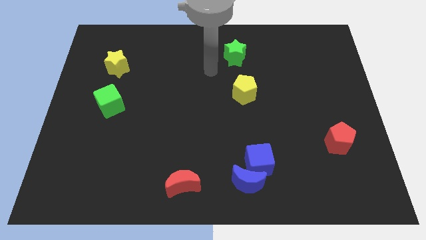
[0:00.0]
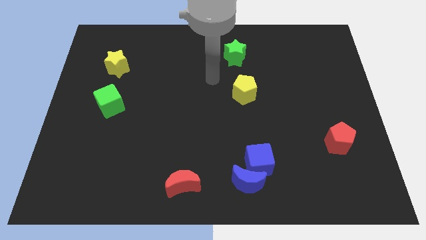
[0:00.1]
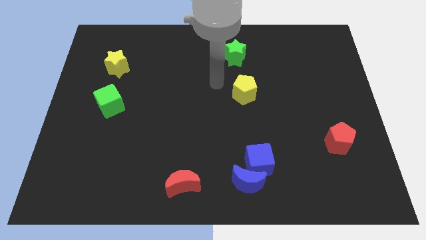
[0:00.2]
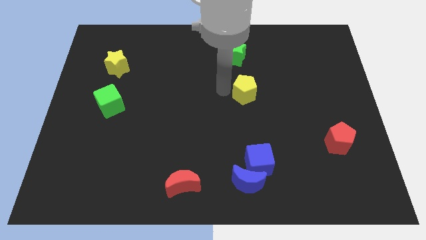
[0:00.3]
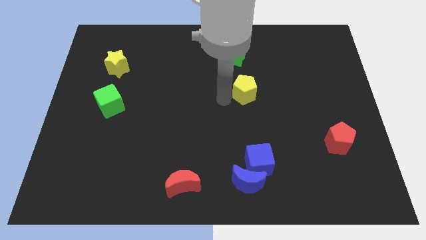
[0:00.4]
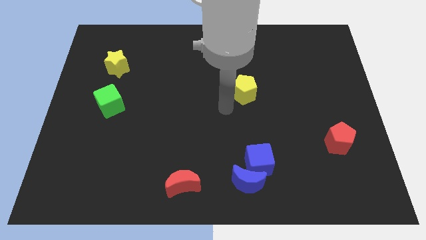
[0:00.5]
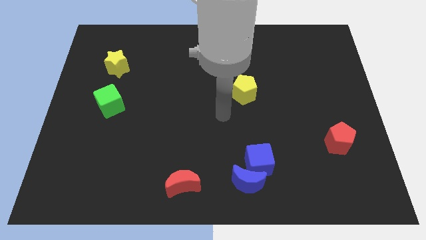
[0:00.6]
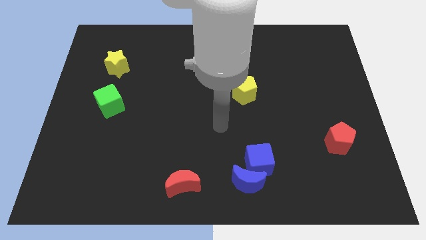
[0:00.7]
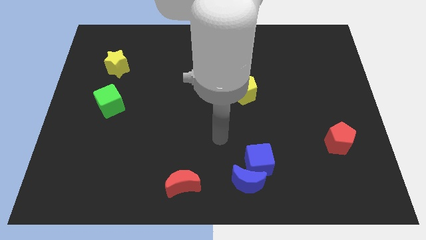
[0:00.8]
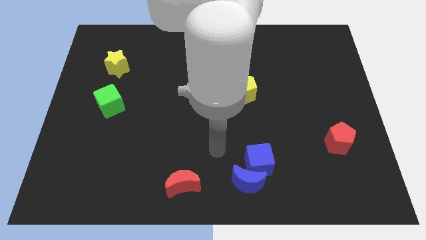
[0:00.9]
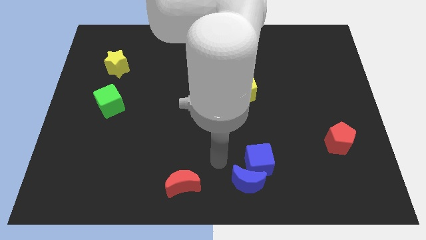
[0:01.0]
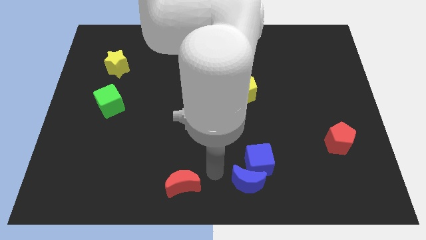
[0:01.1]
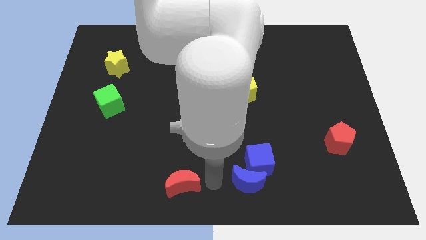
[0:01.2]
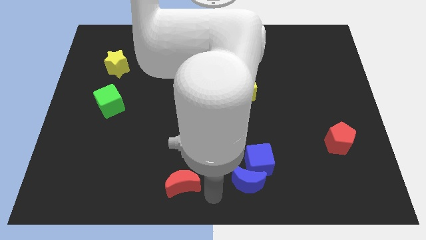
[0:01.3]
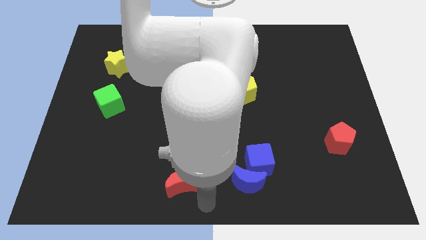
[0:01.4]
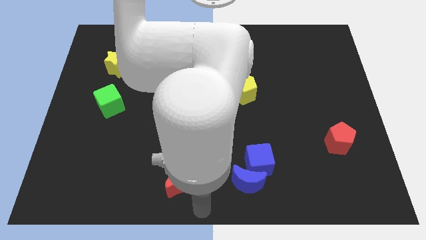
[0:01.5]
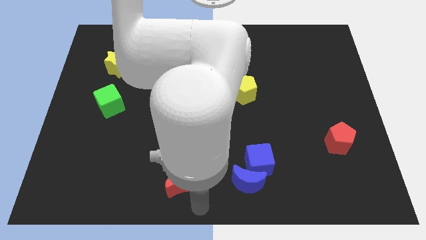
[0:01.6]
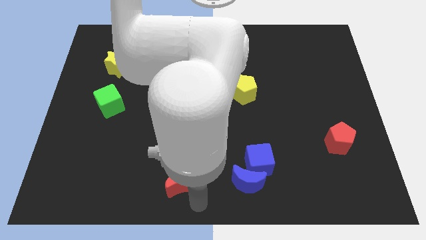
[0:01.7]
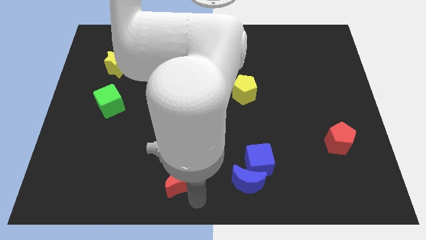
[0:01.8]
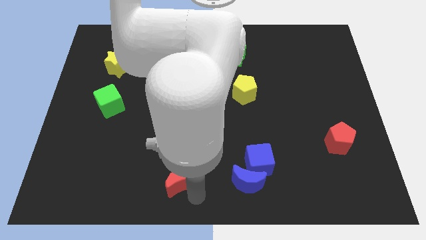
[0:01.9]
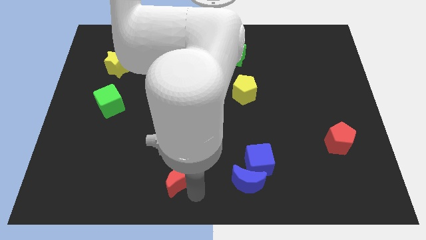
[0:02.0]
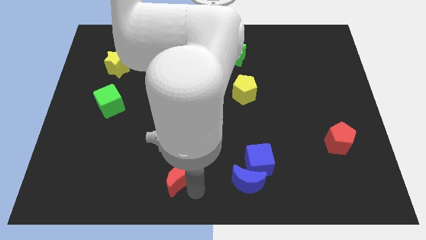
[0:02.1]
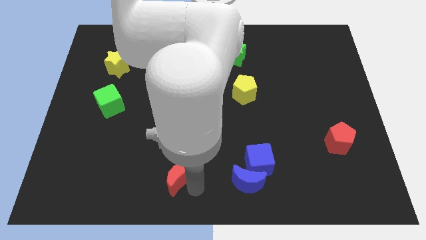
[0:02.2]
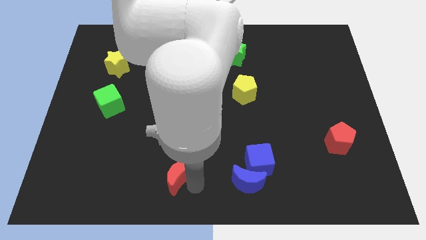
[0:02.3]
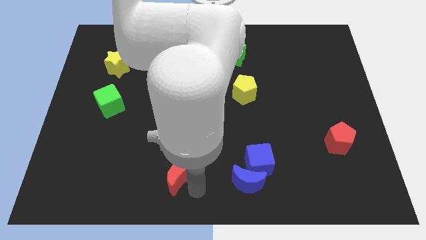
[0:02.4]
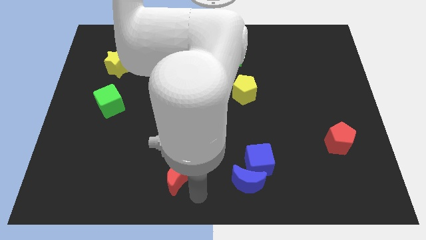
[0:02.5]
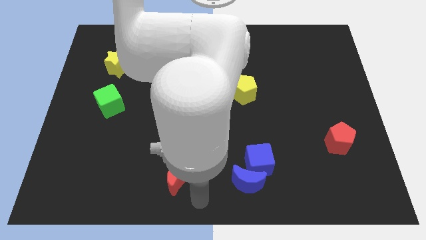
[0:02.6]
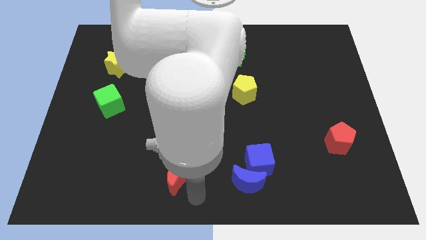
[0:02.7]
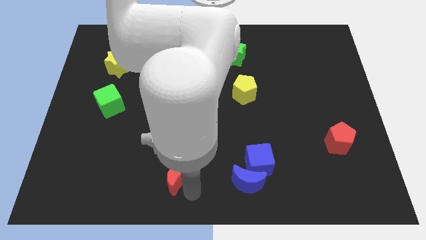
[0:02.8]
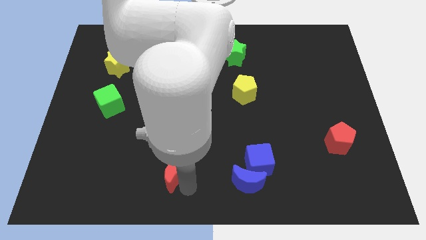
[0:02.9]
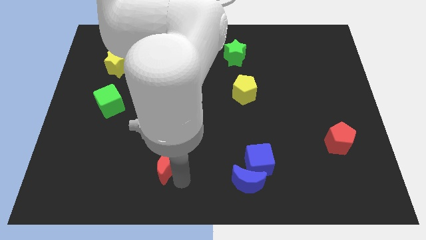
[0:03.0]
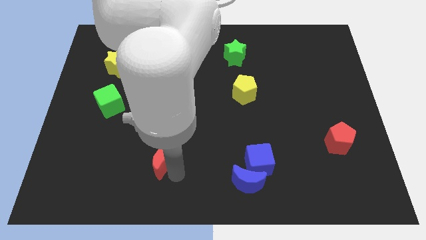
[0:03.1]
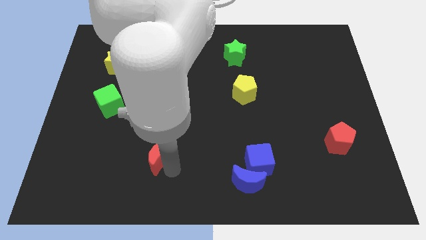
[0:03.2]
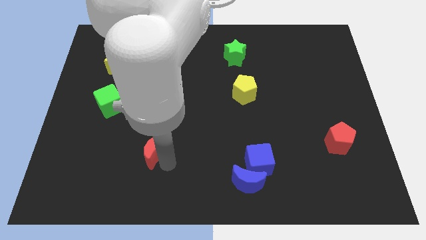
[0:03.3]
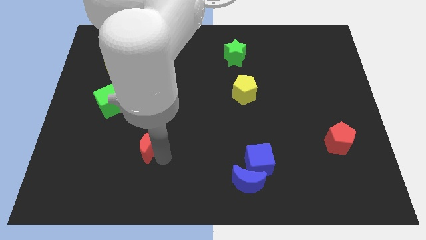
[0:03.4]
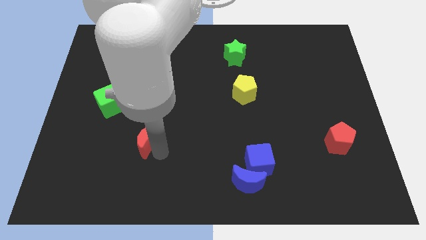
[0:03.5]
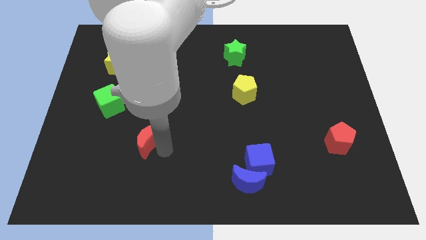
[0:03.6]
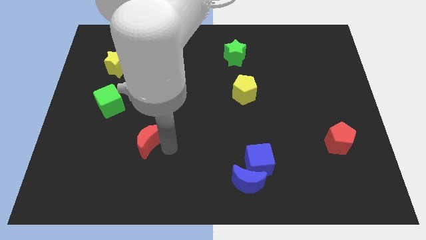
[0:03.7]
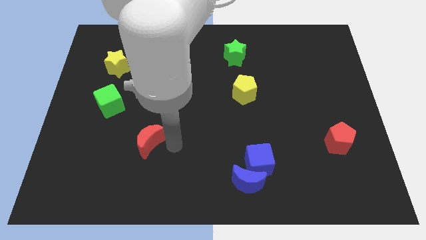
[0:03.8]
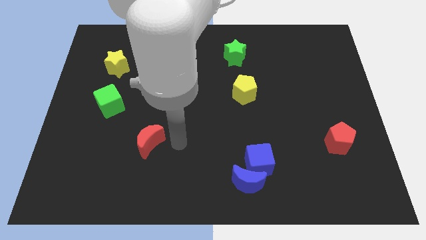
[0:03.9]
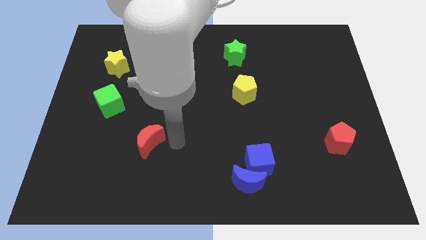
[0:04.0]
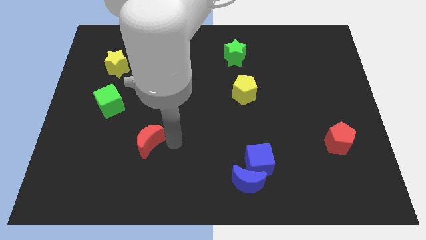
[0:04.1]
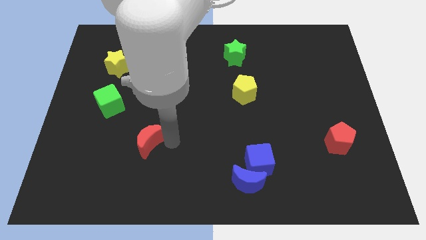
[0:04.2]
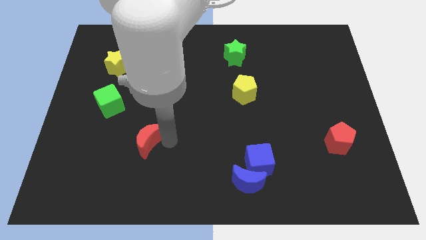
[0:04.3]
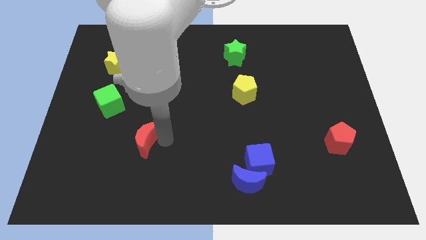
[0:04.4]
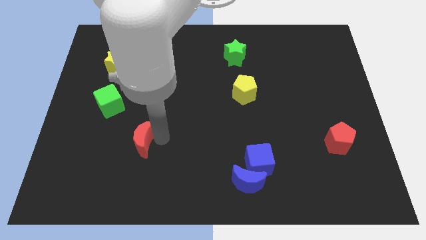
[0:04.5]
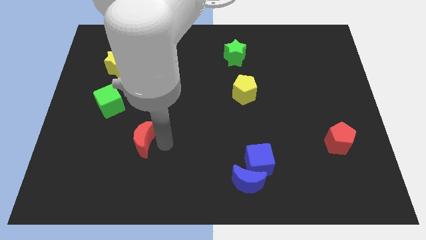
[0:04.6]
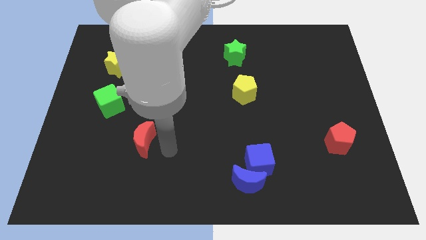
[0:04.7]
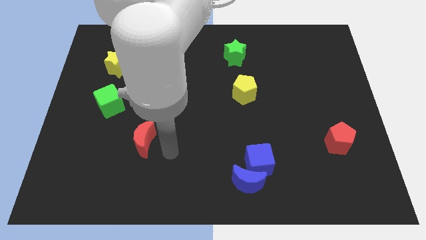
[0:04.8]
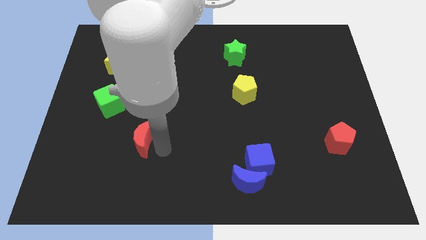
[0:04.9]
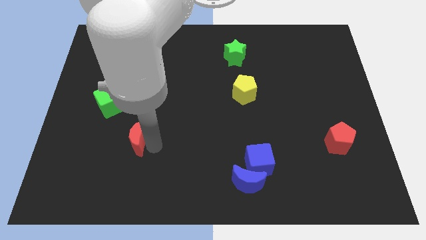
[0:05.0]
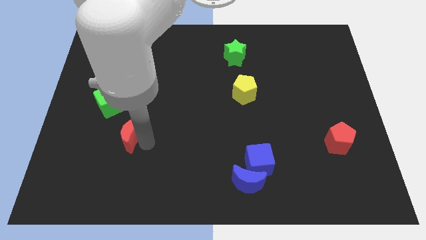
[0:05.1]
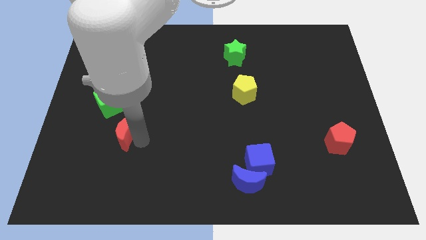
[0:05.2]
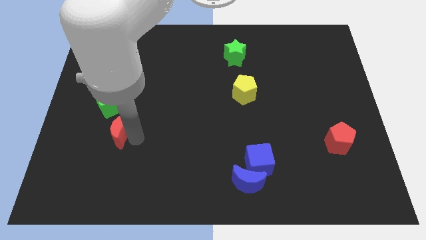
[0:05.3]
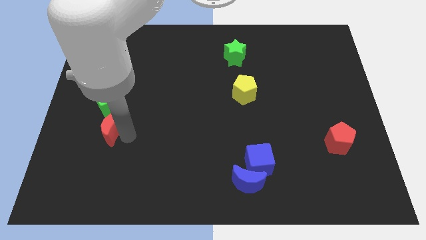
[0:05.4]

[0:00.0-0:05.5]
slide the red moon up and then left

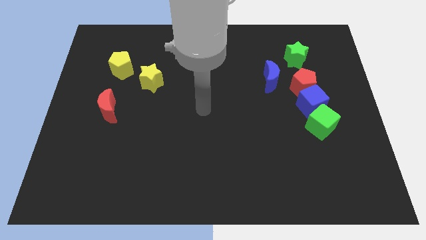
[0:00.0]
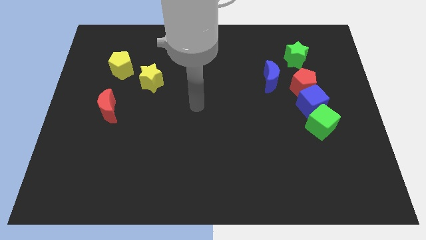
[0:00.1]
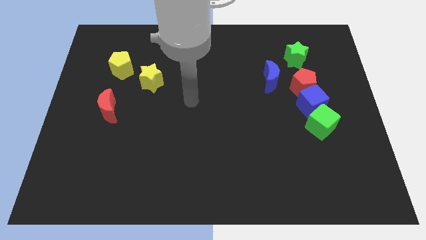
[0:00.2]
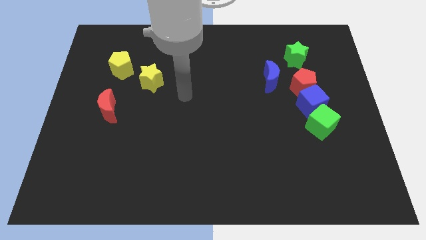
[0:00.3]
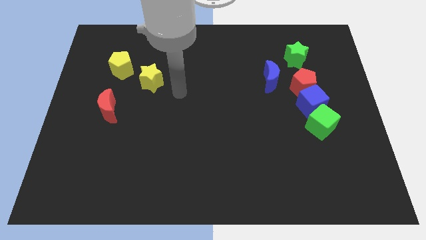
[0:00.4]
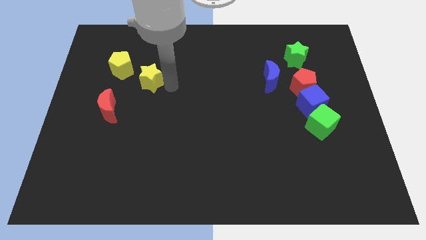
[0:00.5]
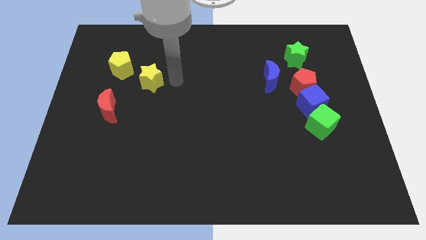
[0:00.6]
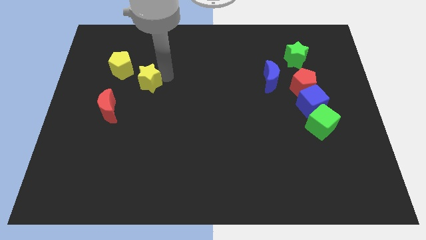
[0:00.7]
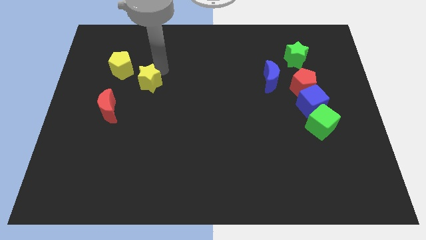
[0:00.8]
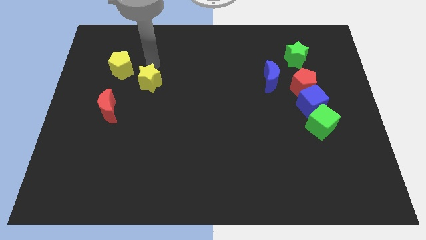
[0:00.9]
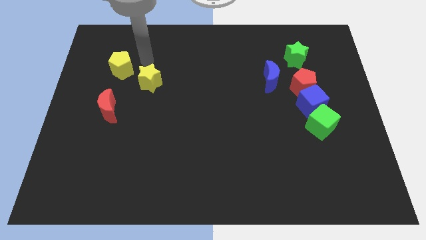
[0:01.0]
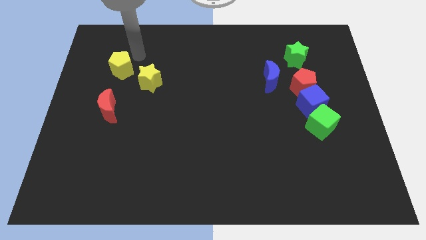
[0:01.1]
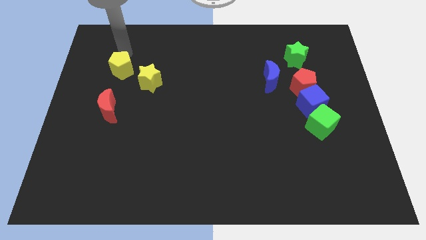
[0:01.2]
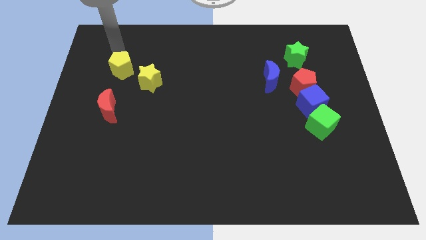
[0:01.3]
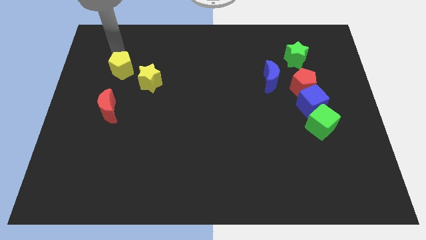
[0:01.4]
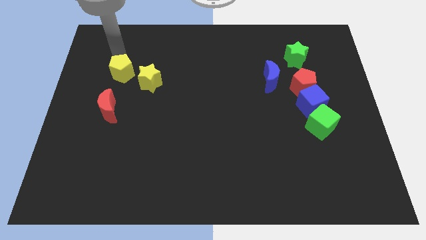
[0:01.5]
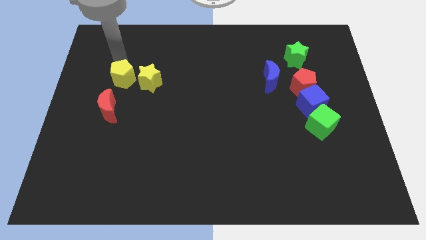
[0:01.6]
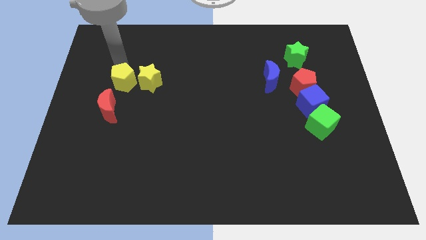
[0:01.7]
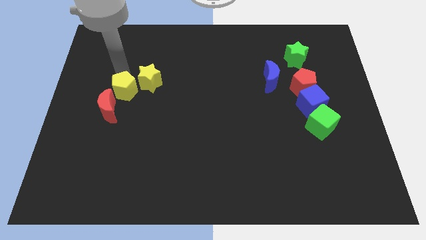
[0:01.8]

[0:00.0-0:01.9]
move the yellow pentagon a little bit down

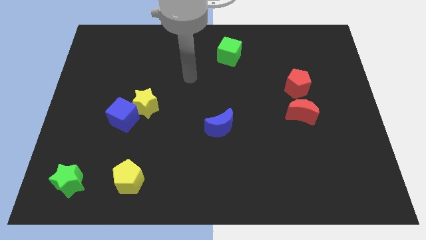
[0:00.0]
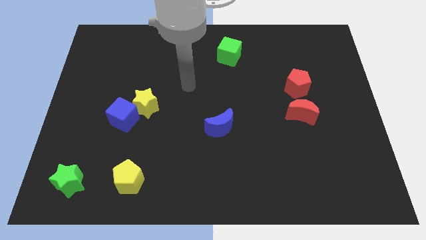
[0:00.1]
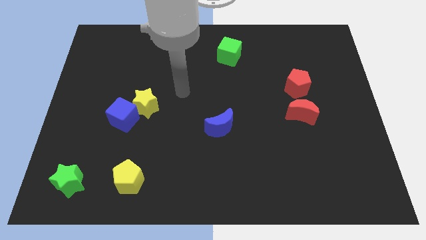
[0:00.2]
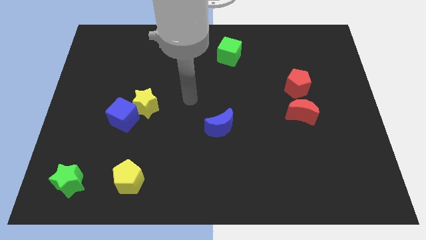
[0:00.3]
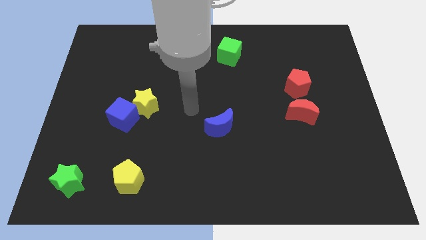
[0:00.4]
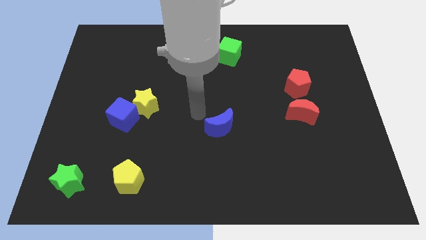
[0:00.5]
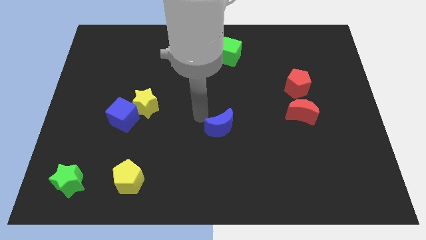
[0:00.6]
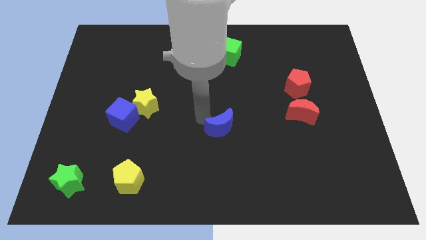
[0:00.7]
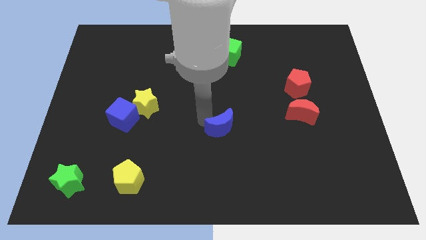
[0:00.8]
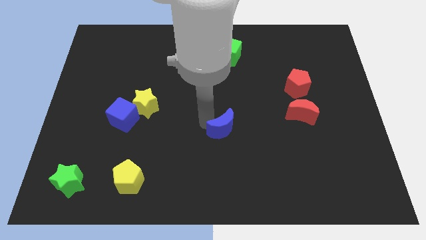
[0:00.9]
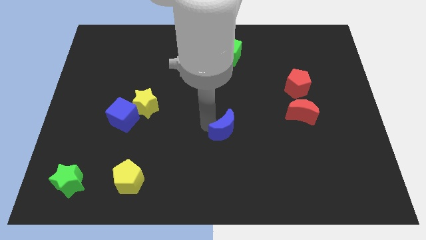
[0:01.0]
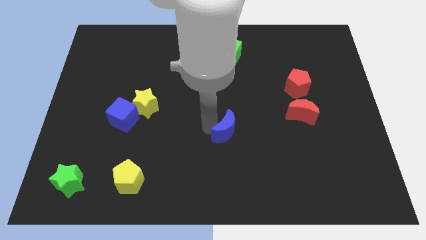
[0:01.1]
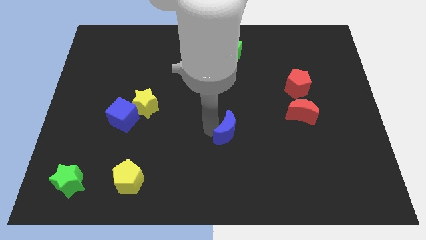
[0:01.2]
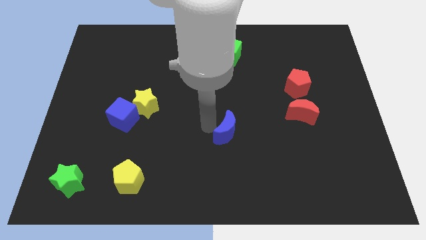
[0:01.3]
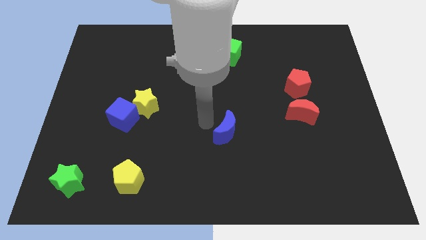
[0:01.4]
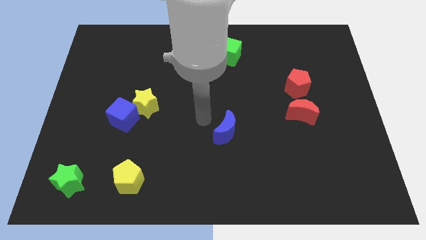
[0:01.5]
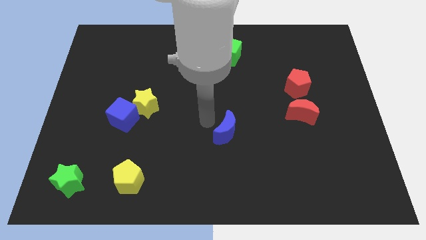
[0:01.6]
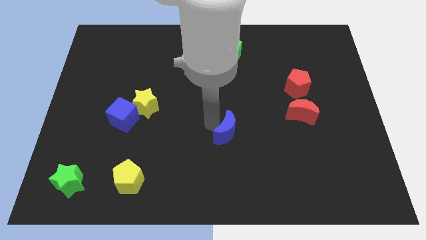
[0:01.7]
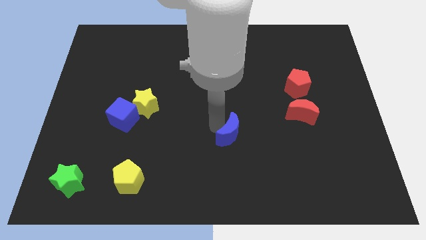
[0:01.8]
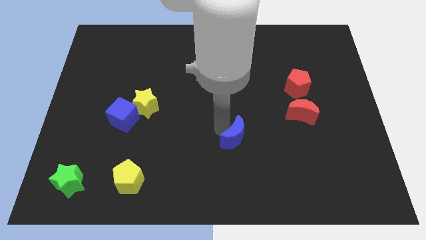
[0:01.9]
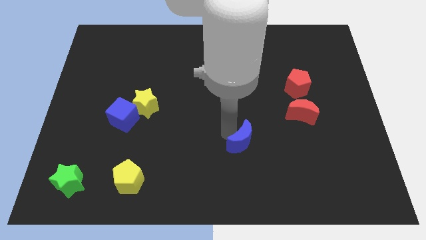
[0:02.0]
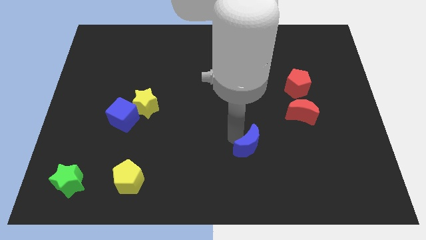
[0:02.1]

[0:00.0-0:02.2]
move the blue moon slightly down and right diagonally
